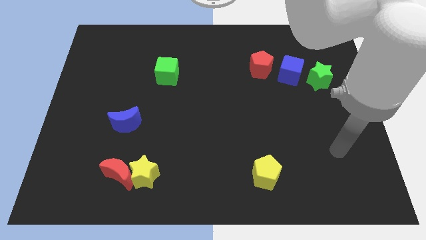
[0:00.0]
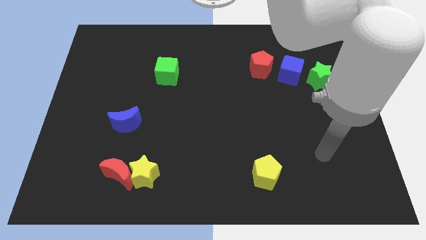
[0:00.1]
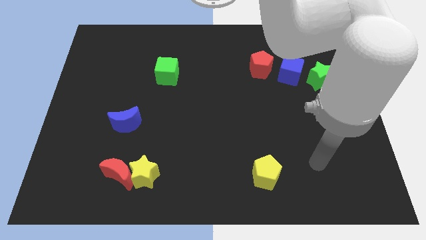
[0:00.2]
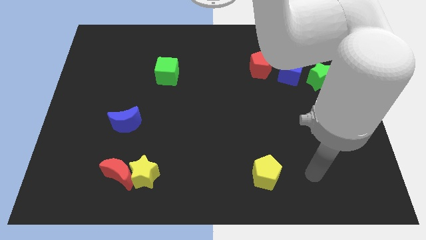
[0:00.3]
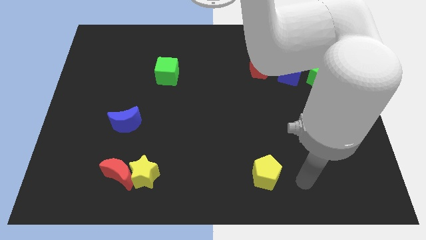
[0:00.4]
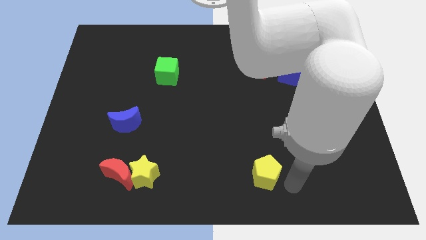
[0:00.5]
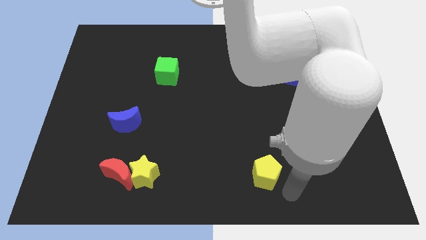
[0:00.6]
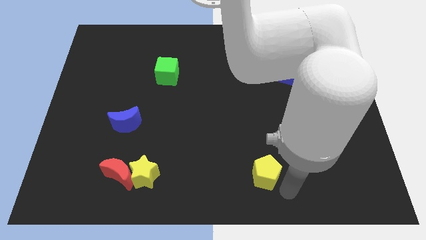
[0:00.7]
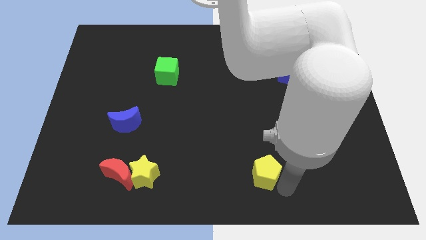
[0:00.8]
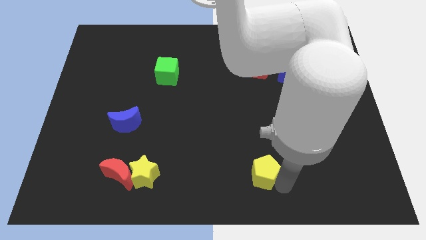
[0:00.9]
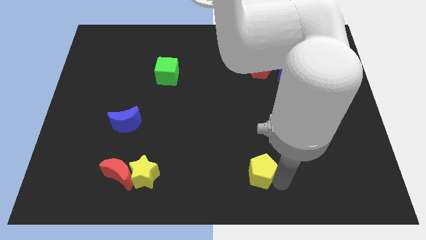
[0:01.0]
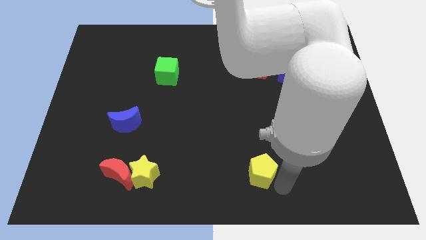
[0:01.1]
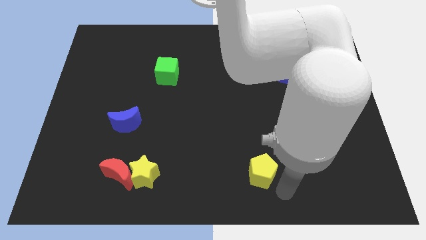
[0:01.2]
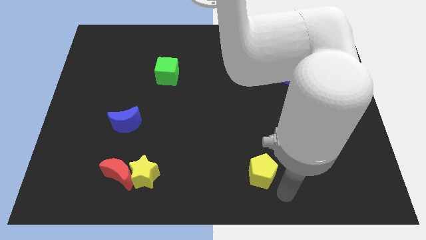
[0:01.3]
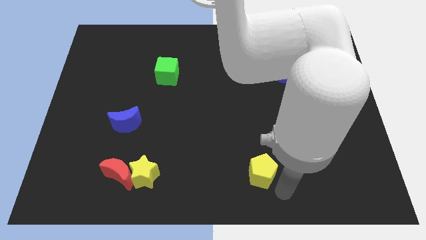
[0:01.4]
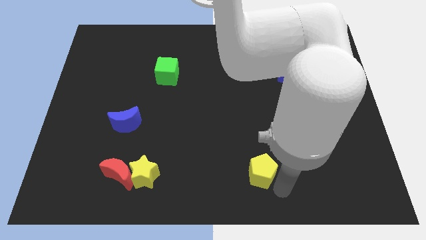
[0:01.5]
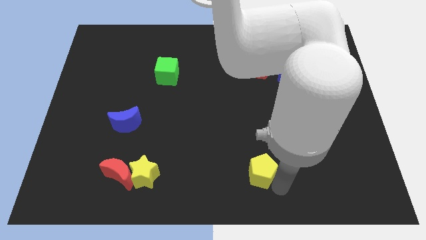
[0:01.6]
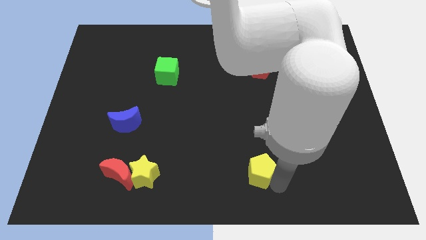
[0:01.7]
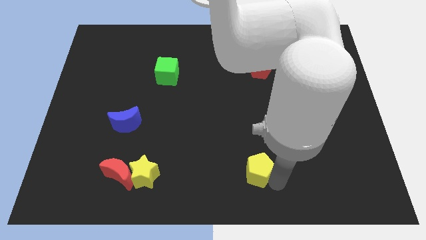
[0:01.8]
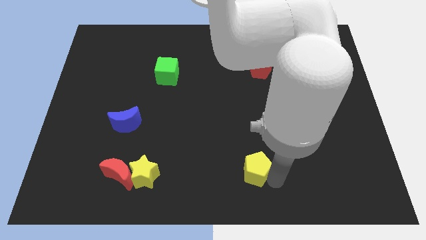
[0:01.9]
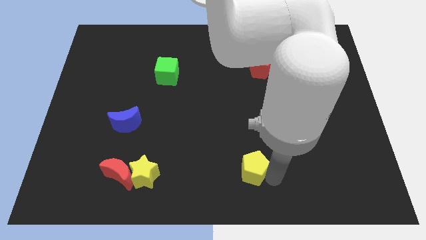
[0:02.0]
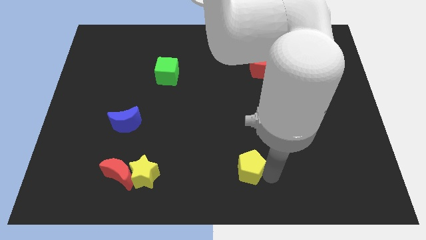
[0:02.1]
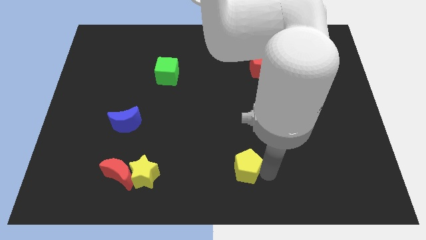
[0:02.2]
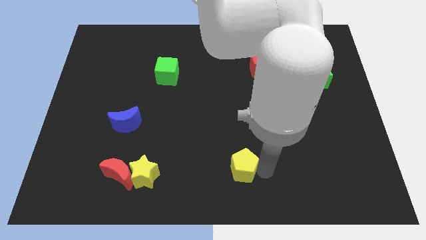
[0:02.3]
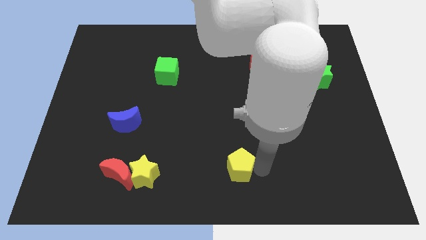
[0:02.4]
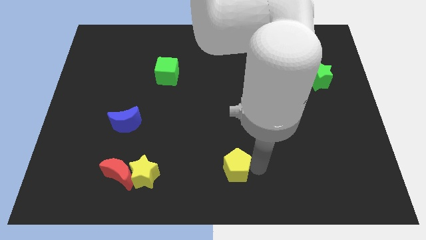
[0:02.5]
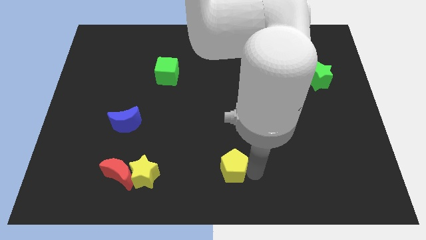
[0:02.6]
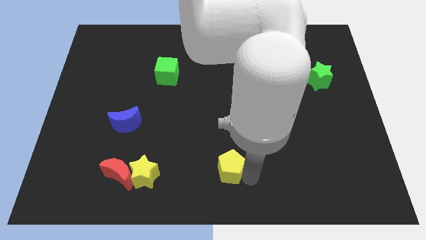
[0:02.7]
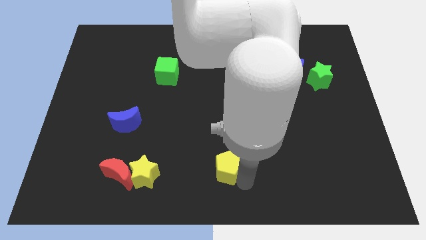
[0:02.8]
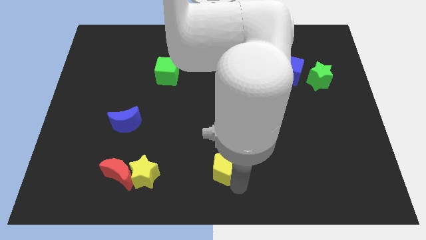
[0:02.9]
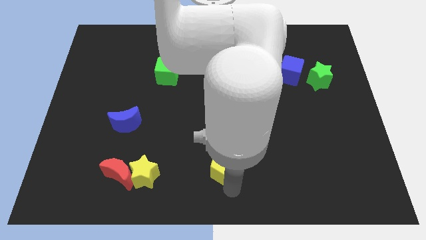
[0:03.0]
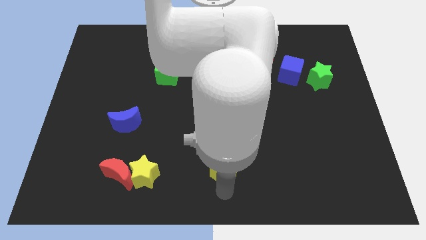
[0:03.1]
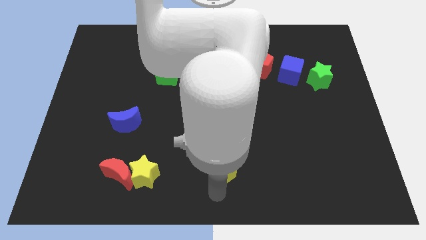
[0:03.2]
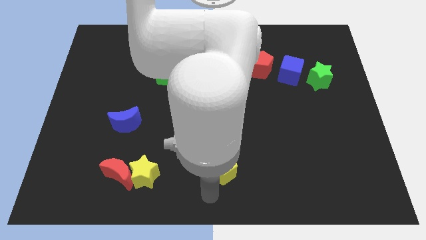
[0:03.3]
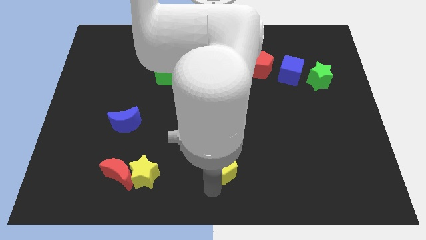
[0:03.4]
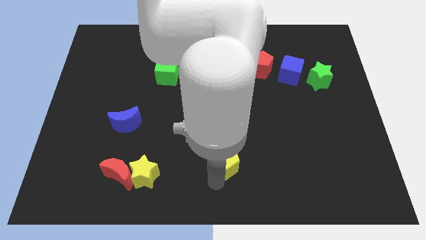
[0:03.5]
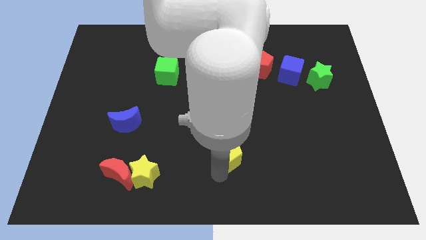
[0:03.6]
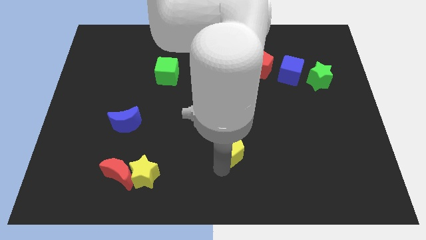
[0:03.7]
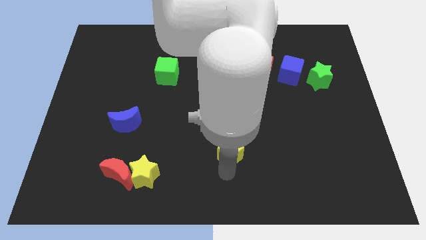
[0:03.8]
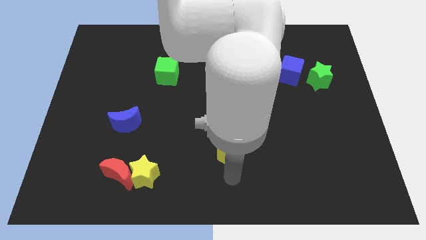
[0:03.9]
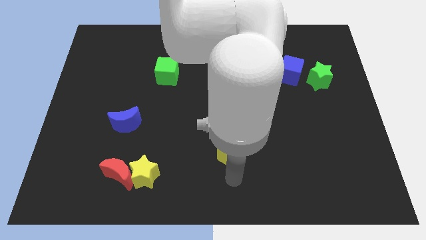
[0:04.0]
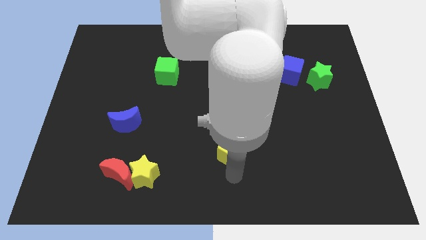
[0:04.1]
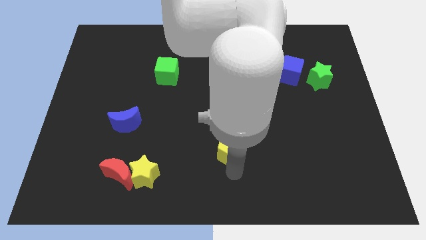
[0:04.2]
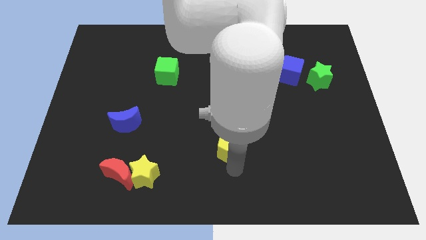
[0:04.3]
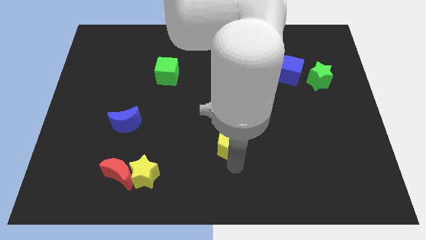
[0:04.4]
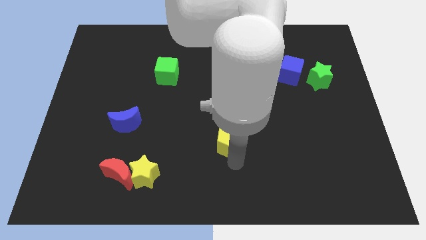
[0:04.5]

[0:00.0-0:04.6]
slide the yellow pentagon to the center

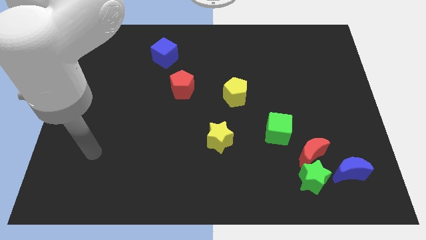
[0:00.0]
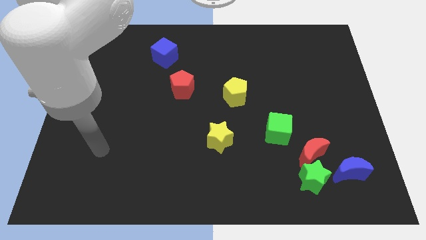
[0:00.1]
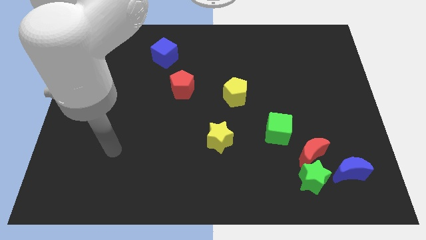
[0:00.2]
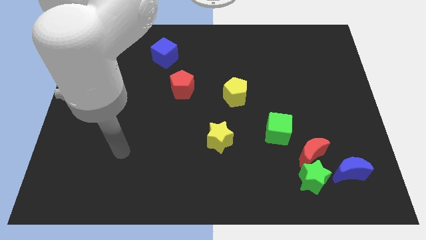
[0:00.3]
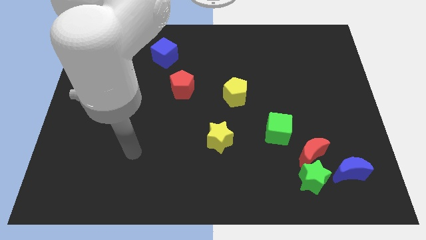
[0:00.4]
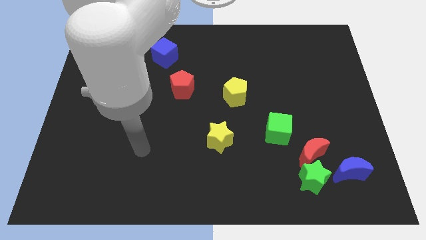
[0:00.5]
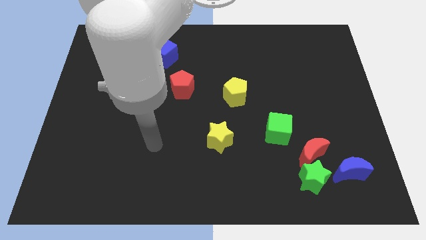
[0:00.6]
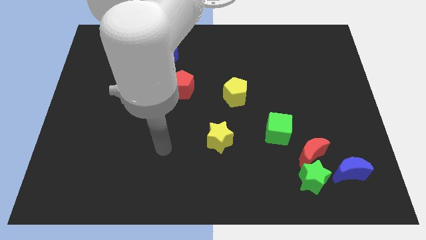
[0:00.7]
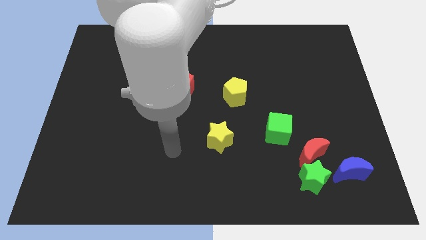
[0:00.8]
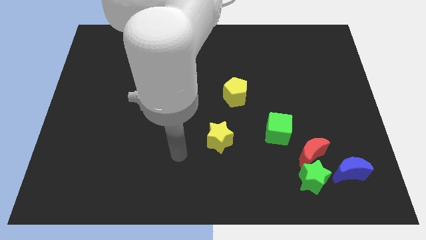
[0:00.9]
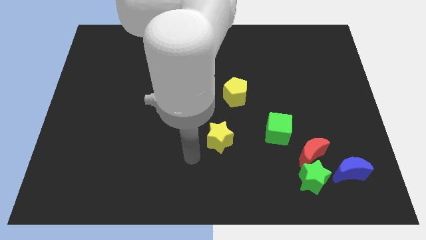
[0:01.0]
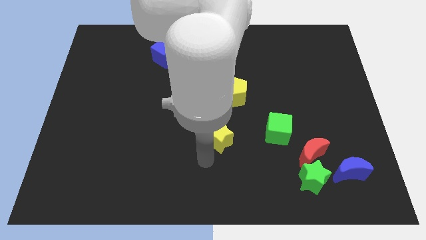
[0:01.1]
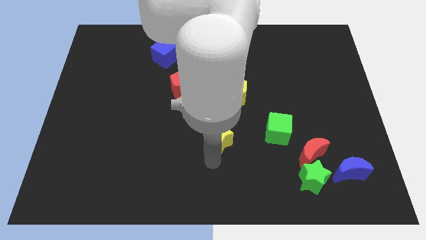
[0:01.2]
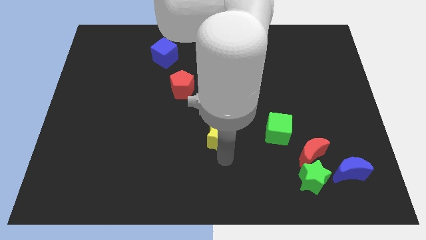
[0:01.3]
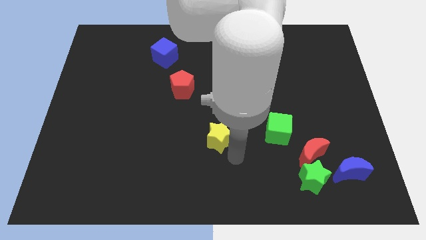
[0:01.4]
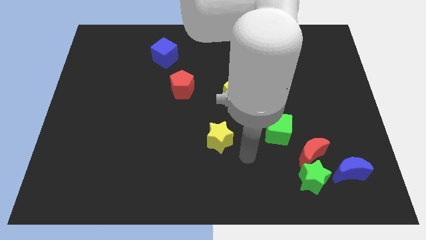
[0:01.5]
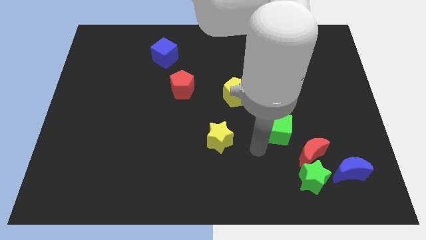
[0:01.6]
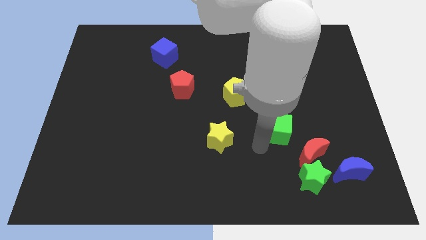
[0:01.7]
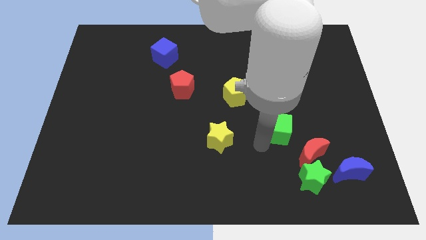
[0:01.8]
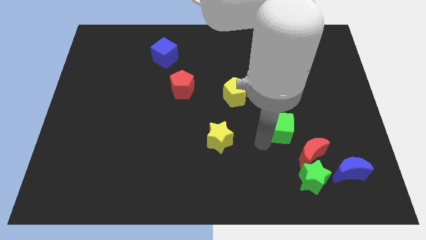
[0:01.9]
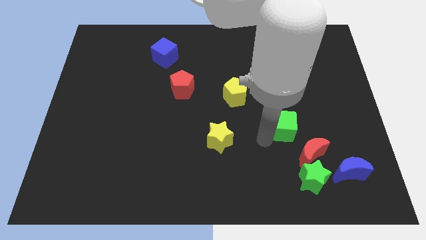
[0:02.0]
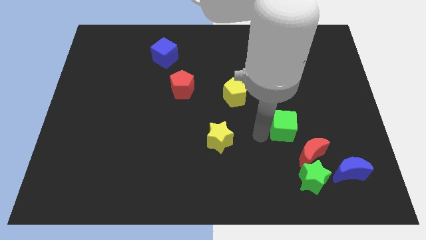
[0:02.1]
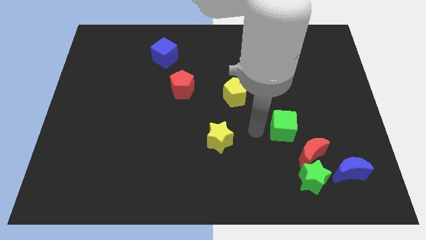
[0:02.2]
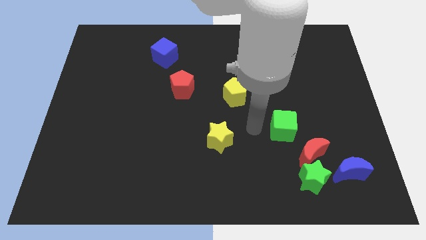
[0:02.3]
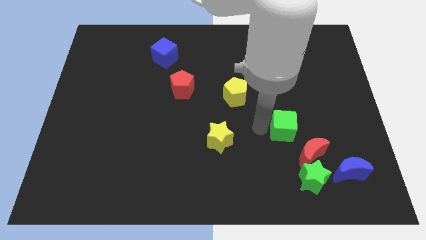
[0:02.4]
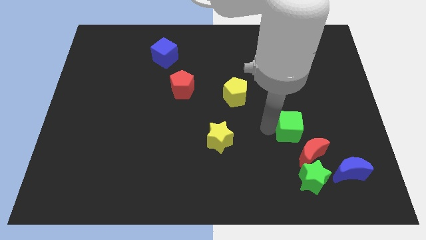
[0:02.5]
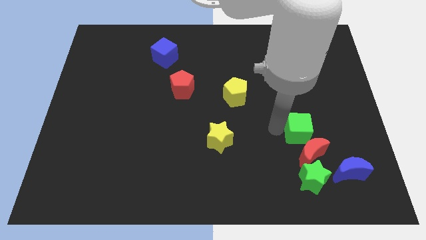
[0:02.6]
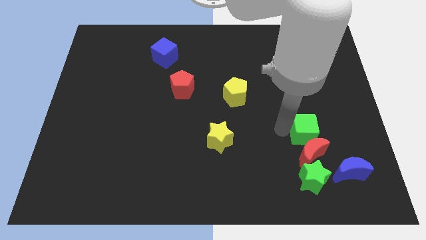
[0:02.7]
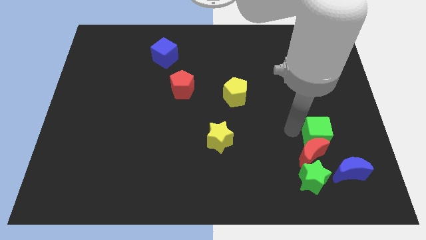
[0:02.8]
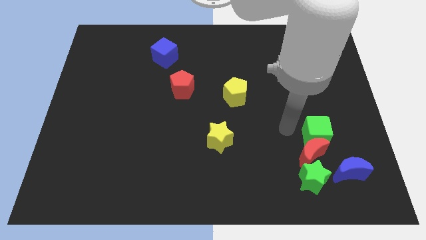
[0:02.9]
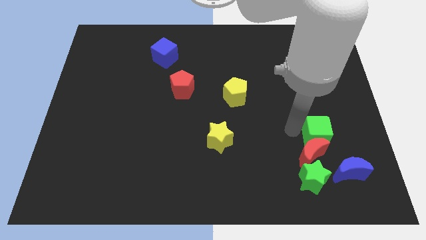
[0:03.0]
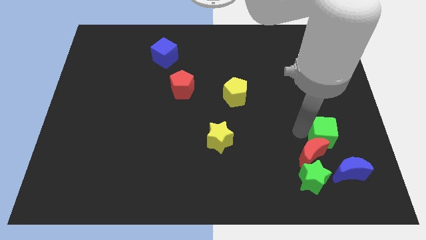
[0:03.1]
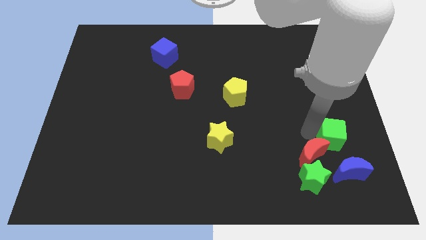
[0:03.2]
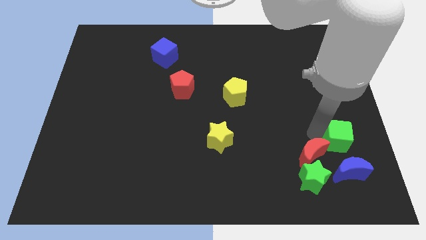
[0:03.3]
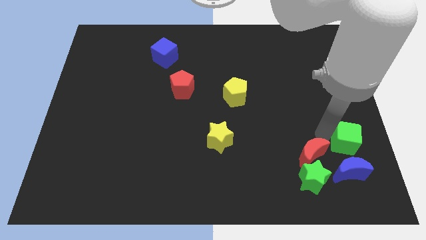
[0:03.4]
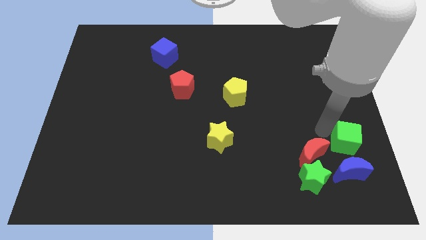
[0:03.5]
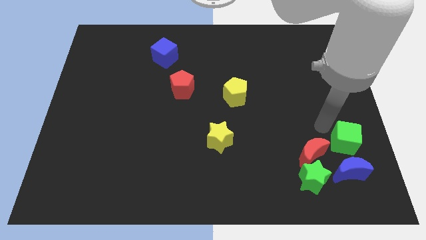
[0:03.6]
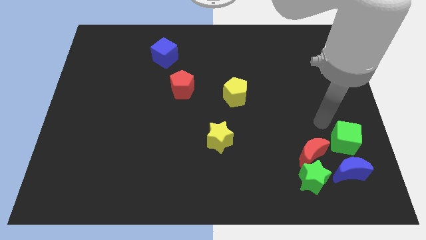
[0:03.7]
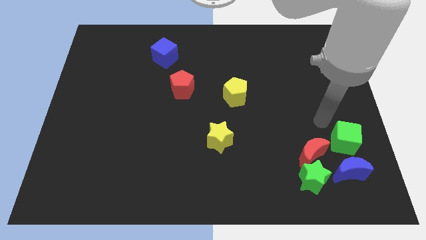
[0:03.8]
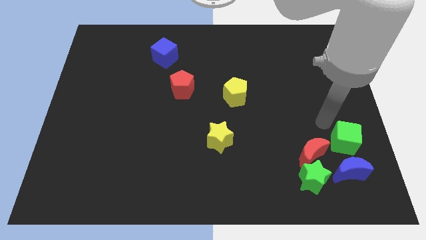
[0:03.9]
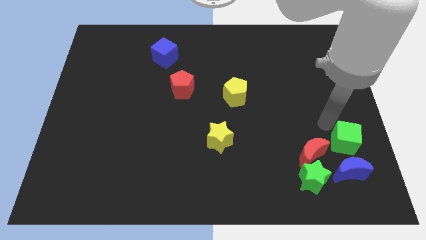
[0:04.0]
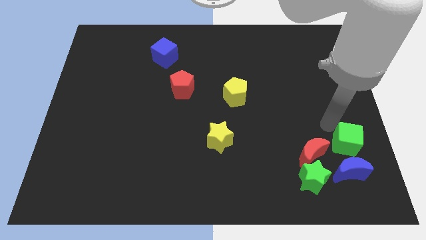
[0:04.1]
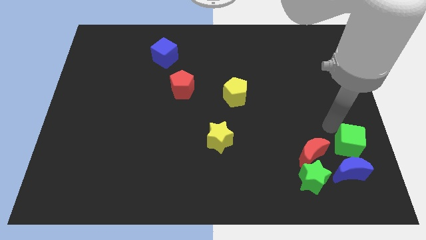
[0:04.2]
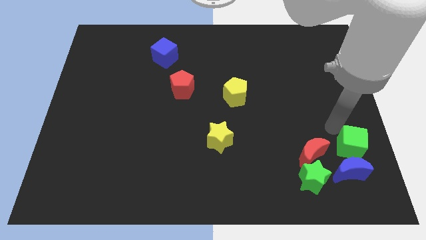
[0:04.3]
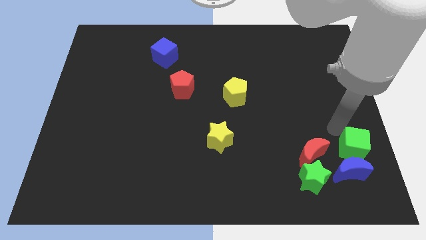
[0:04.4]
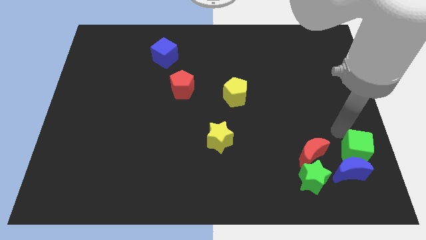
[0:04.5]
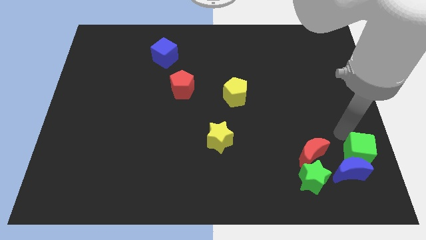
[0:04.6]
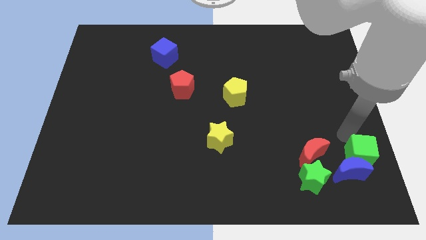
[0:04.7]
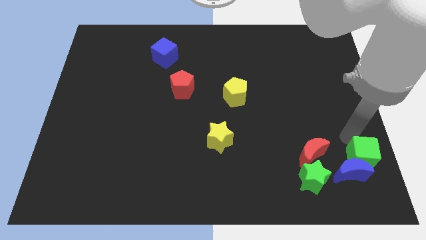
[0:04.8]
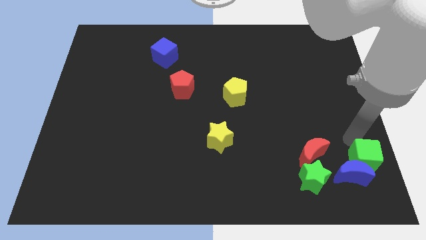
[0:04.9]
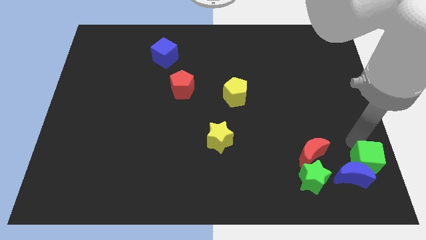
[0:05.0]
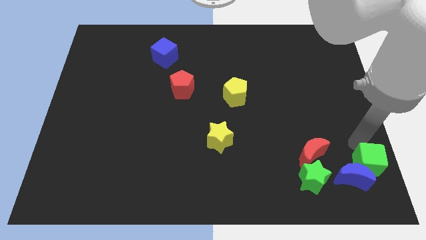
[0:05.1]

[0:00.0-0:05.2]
push the green cube to the lower right corner
